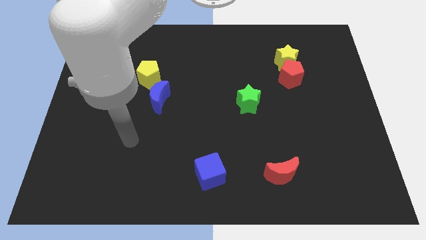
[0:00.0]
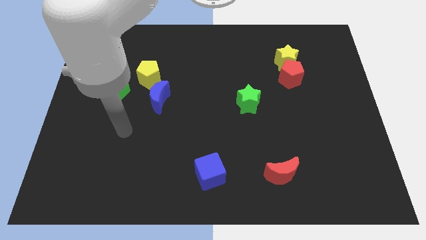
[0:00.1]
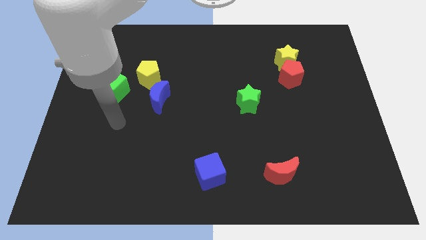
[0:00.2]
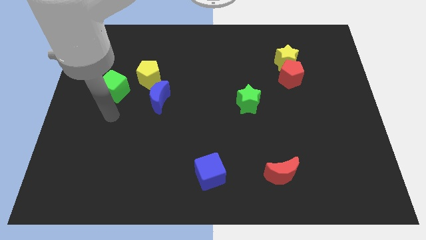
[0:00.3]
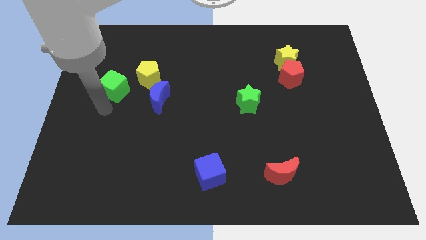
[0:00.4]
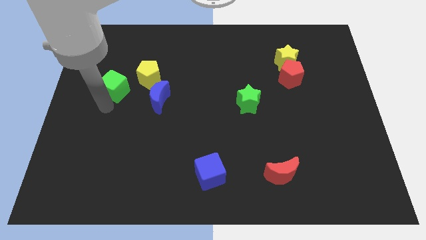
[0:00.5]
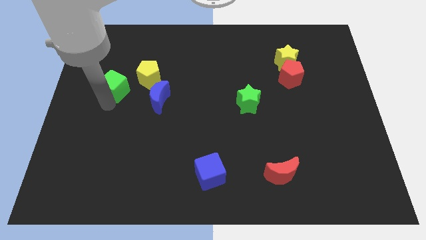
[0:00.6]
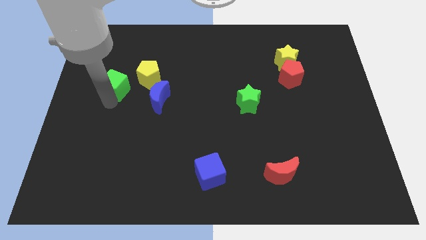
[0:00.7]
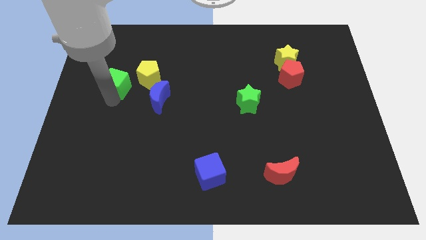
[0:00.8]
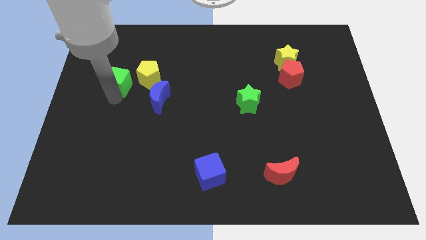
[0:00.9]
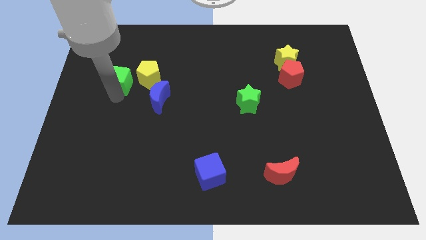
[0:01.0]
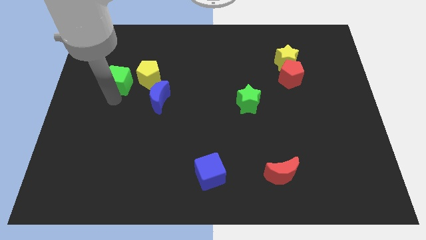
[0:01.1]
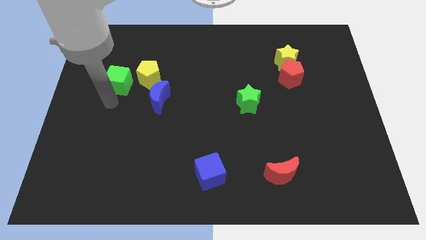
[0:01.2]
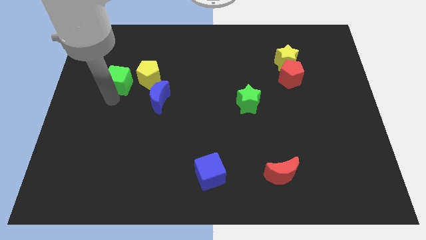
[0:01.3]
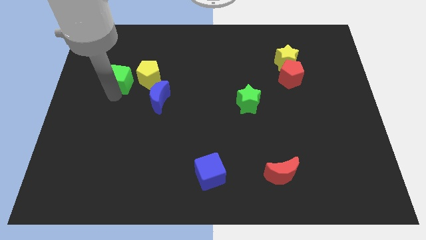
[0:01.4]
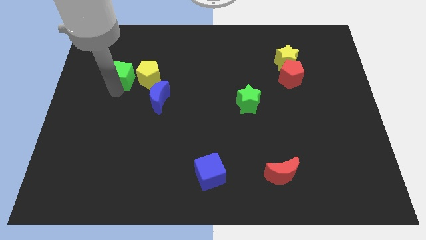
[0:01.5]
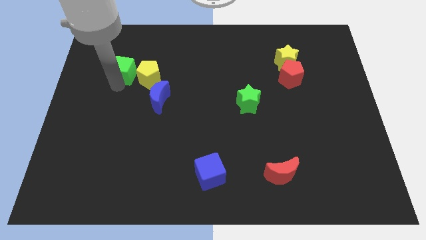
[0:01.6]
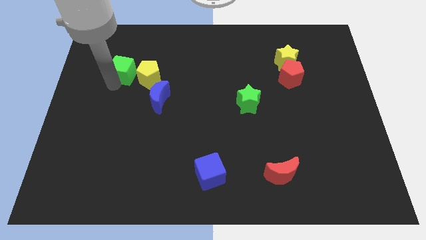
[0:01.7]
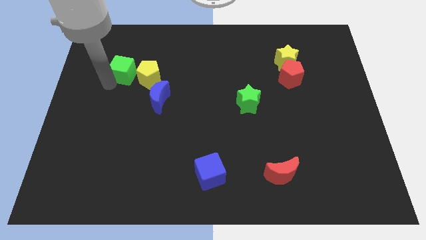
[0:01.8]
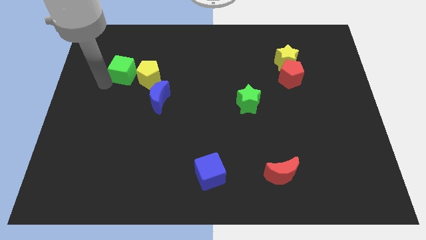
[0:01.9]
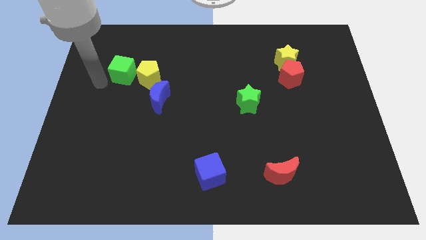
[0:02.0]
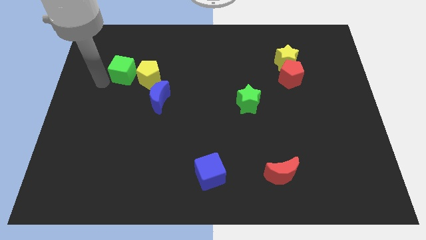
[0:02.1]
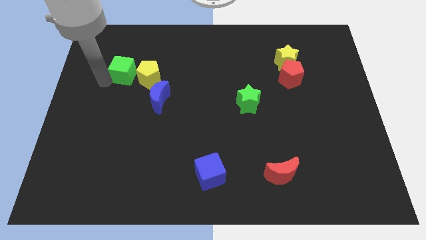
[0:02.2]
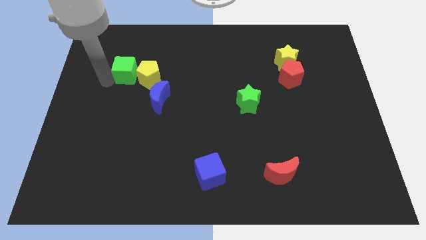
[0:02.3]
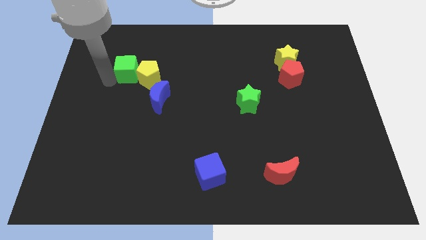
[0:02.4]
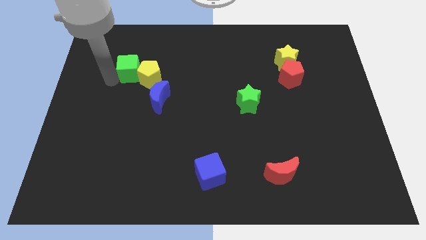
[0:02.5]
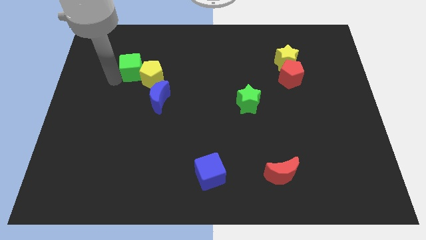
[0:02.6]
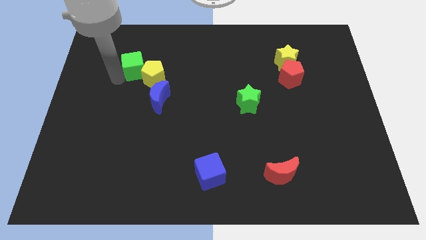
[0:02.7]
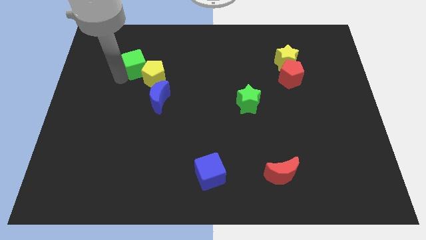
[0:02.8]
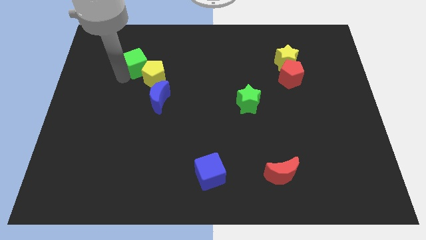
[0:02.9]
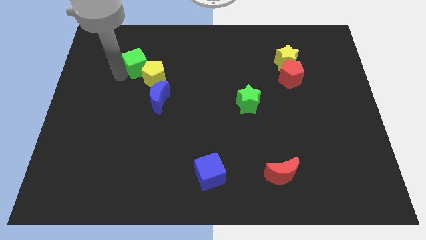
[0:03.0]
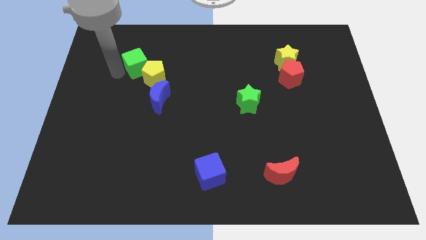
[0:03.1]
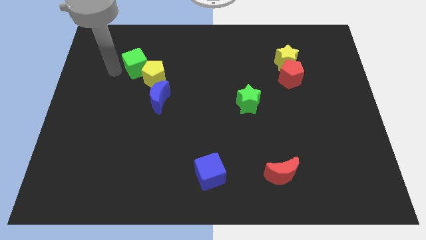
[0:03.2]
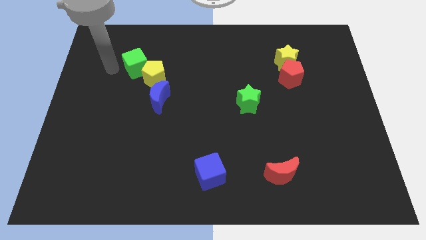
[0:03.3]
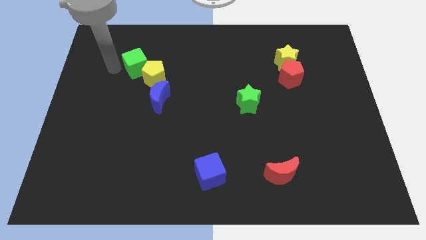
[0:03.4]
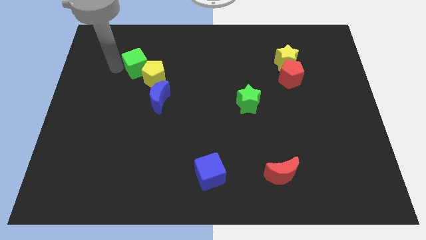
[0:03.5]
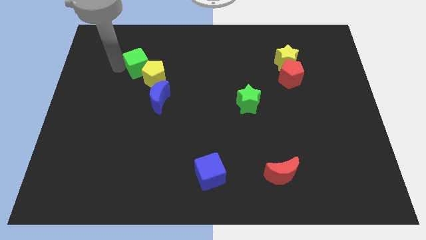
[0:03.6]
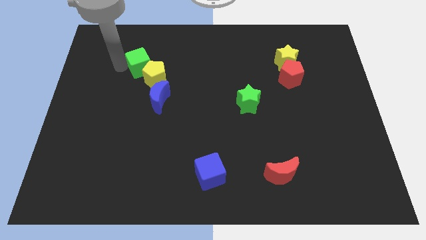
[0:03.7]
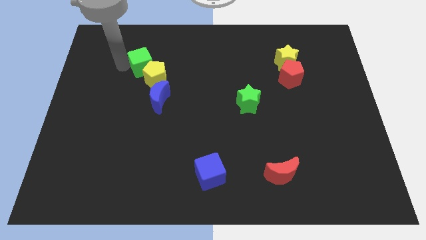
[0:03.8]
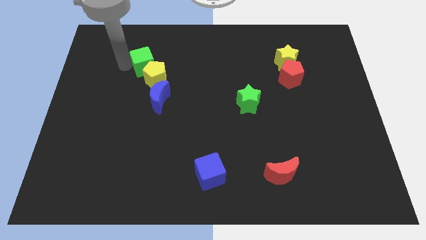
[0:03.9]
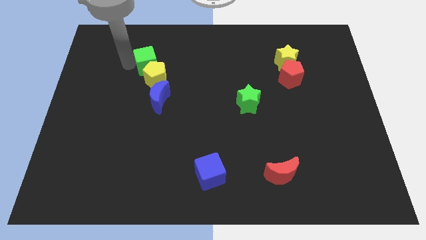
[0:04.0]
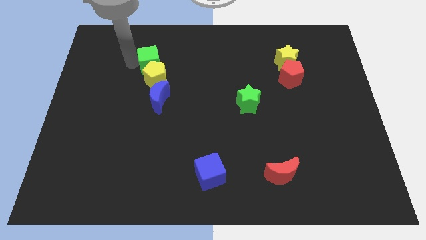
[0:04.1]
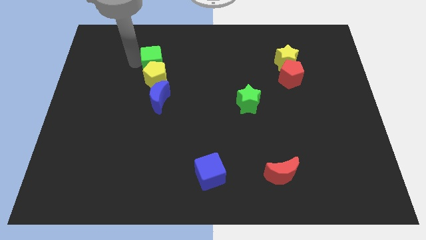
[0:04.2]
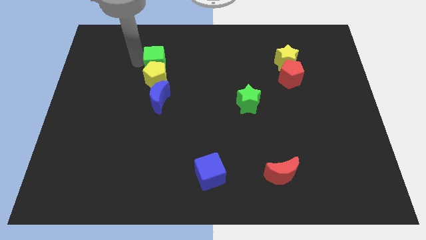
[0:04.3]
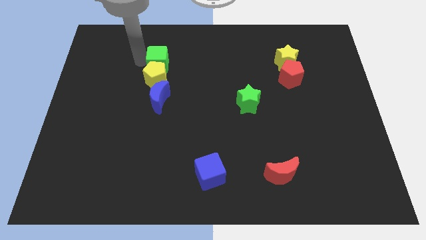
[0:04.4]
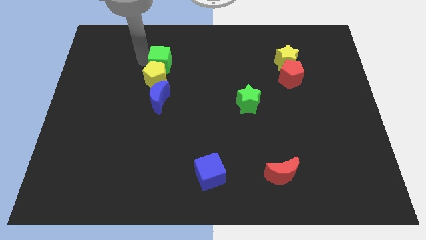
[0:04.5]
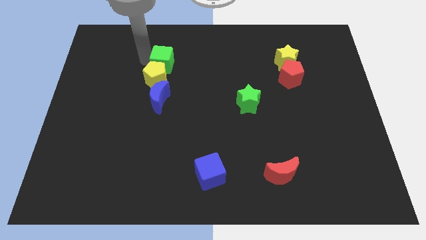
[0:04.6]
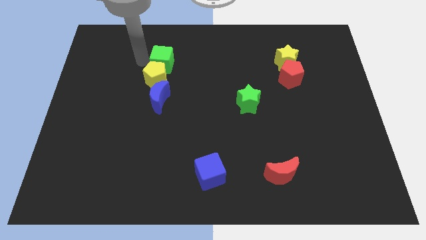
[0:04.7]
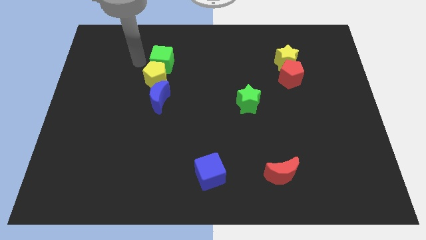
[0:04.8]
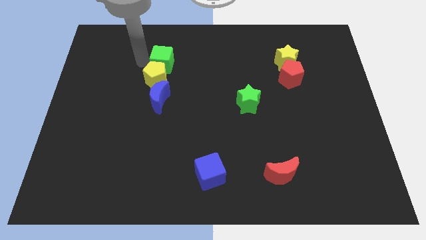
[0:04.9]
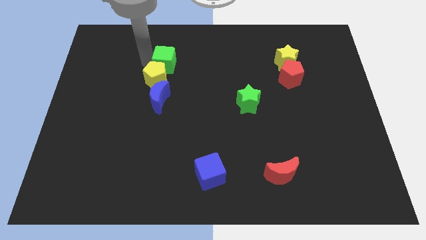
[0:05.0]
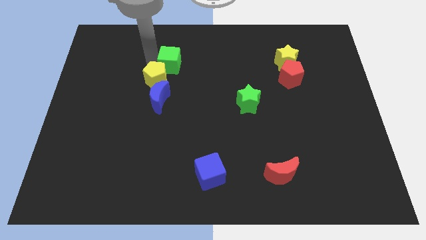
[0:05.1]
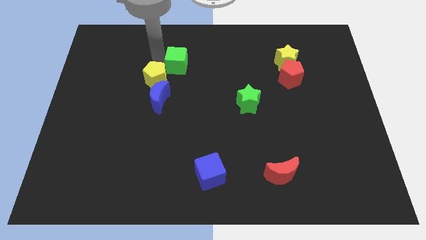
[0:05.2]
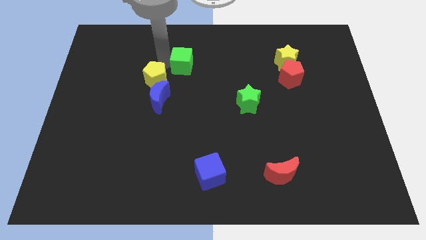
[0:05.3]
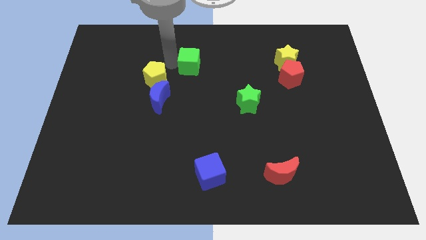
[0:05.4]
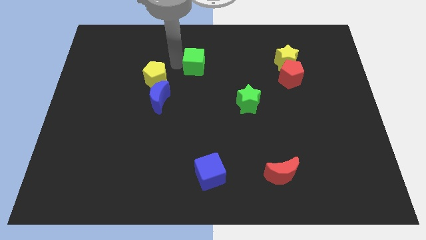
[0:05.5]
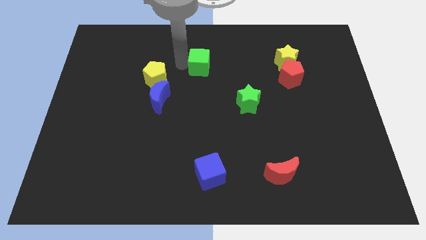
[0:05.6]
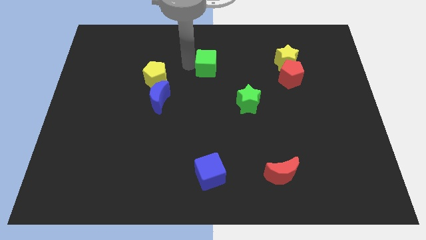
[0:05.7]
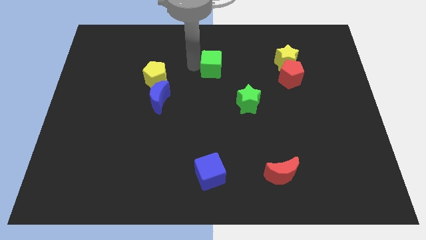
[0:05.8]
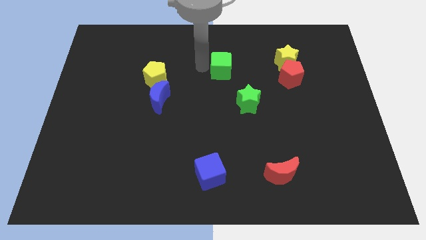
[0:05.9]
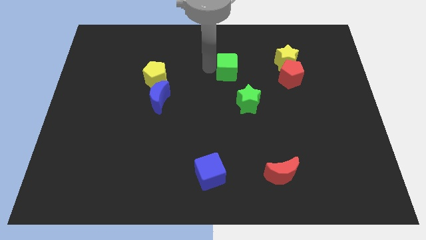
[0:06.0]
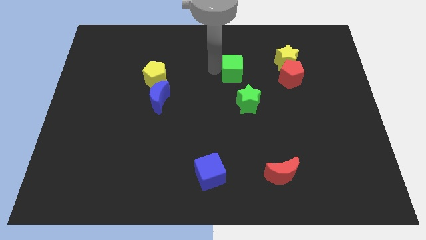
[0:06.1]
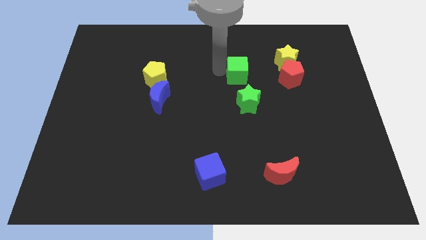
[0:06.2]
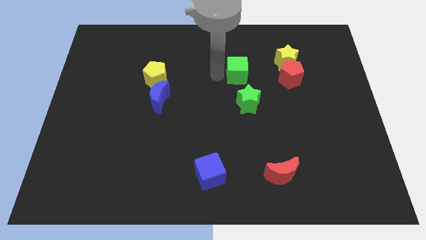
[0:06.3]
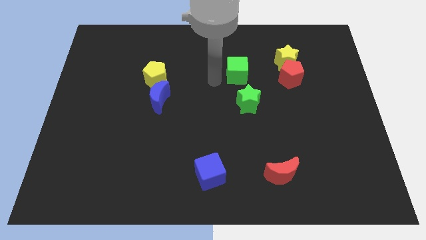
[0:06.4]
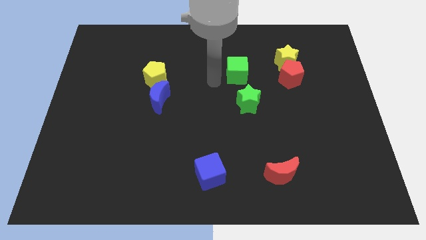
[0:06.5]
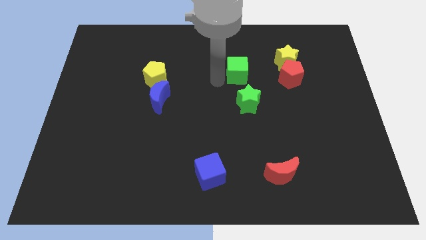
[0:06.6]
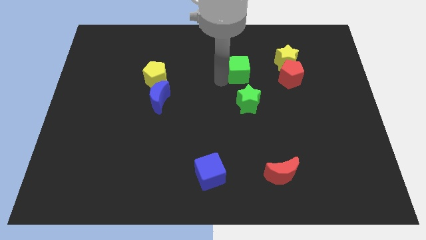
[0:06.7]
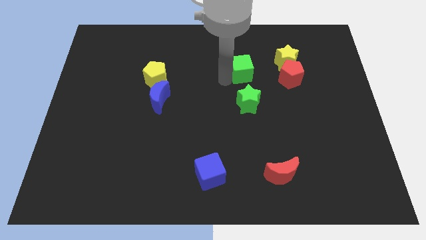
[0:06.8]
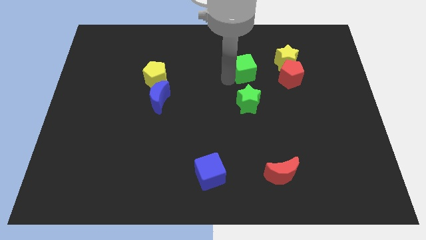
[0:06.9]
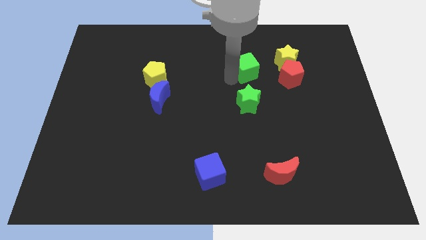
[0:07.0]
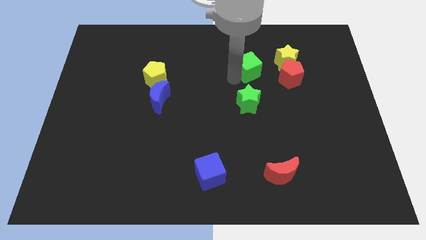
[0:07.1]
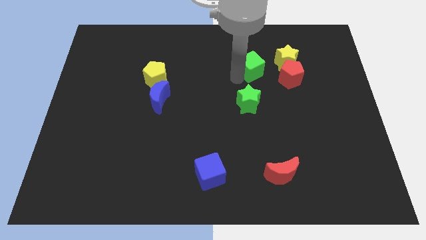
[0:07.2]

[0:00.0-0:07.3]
put the green cube to the top left side of the red pentagon

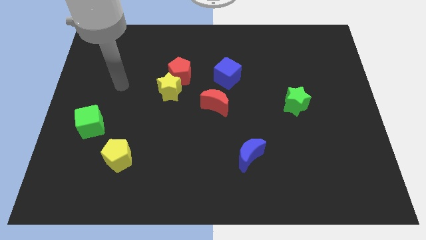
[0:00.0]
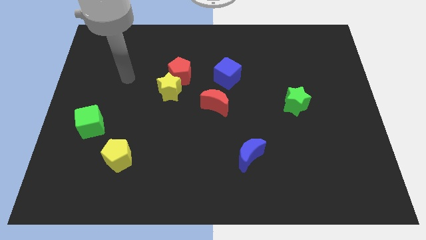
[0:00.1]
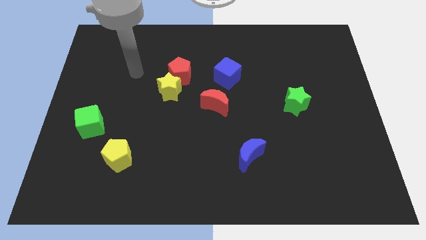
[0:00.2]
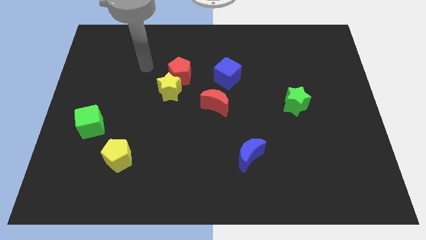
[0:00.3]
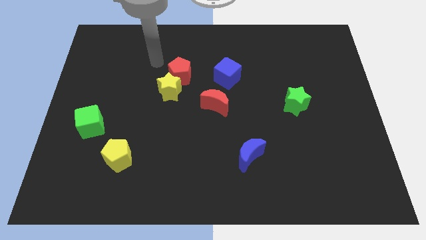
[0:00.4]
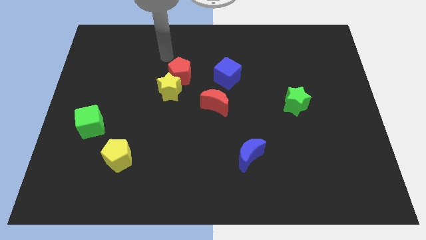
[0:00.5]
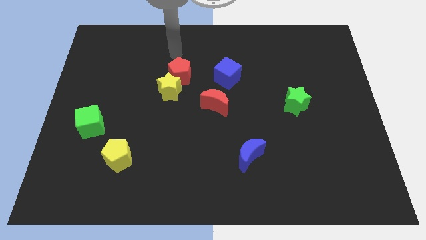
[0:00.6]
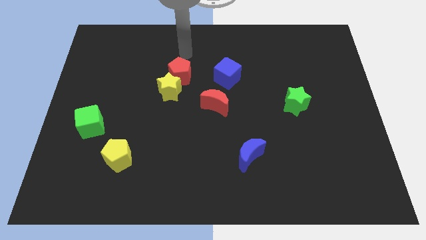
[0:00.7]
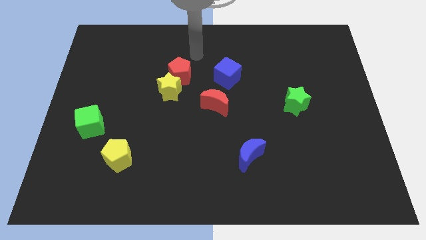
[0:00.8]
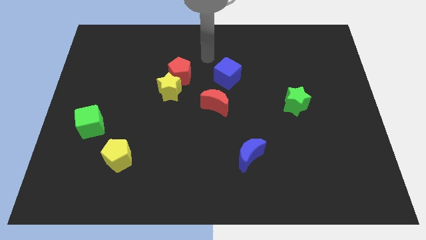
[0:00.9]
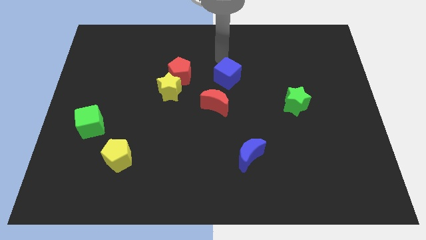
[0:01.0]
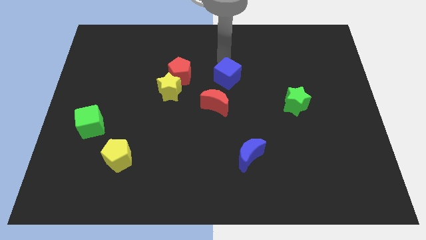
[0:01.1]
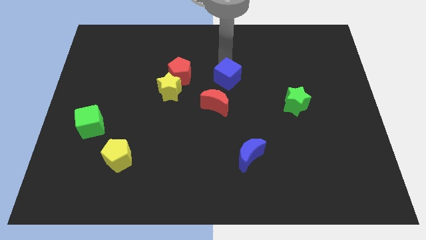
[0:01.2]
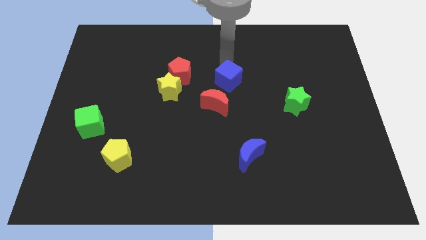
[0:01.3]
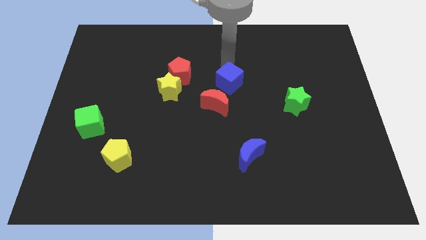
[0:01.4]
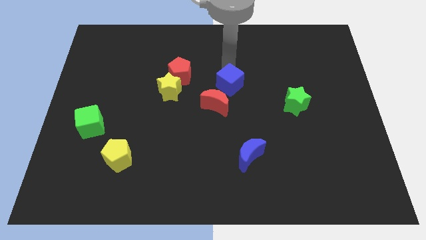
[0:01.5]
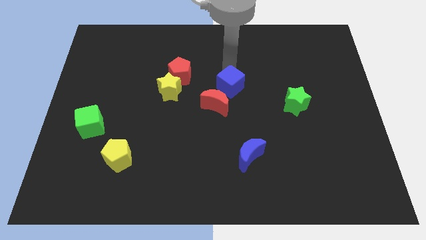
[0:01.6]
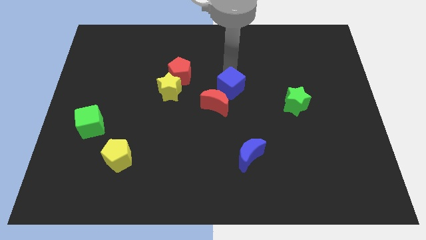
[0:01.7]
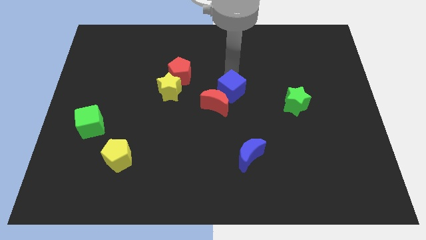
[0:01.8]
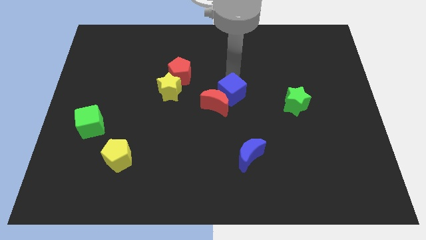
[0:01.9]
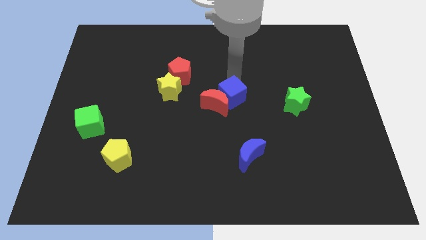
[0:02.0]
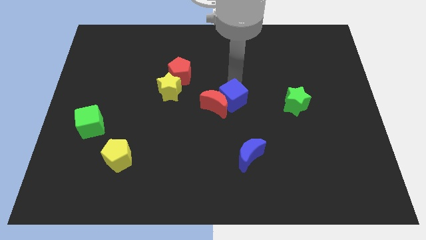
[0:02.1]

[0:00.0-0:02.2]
push the blue cube diagonally down and to the right of the red moon
